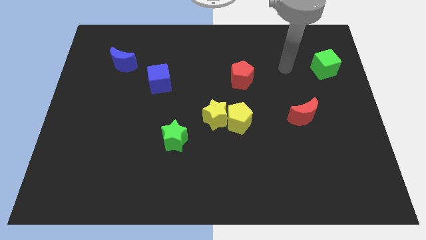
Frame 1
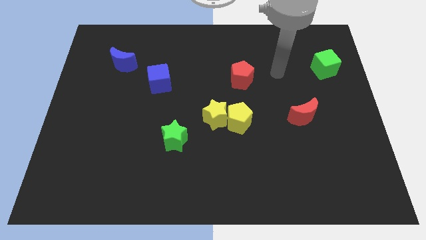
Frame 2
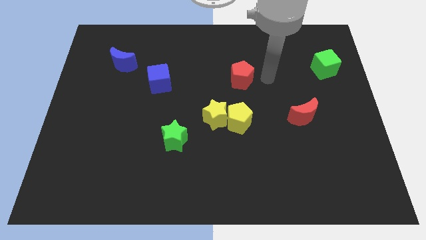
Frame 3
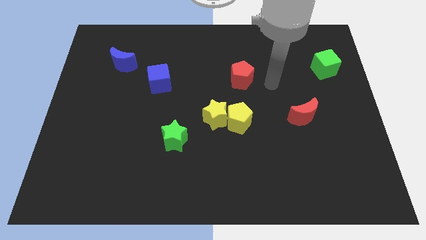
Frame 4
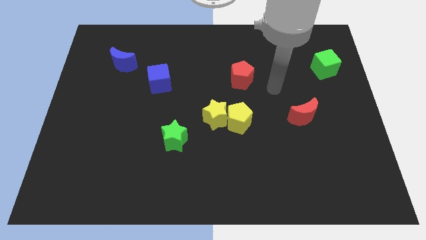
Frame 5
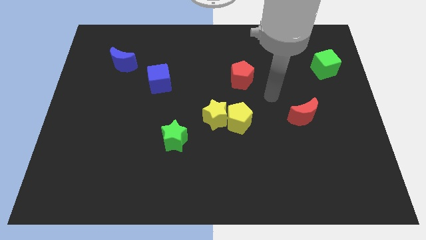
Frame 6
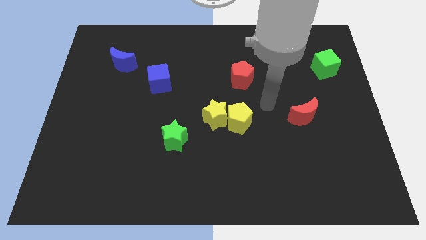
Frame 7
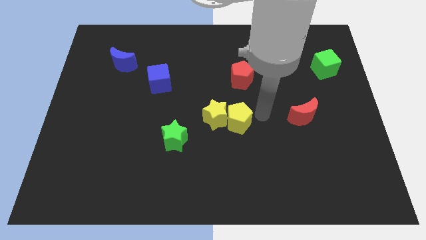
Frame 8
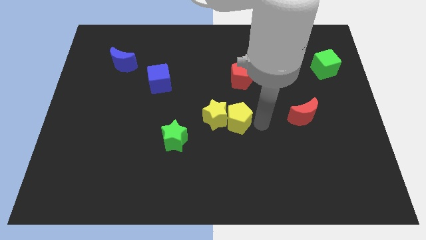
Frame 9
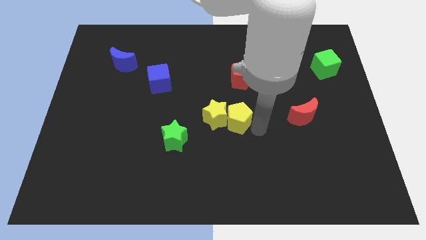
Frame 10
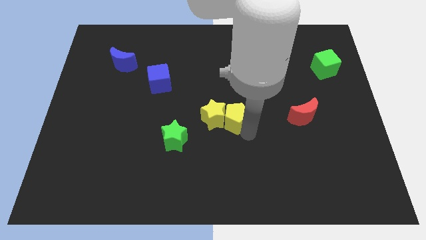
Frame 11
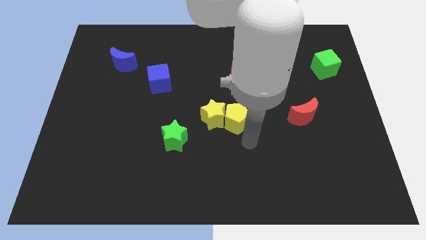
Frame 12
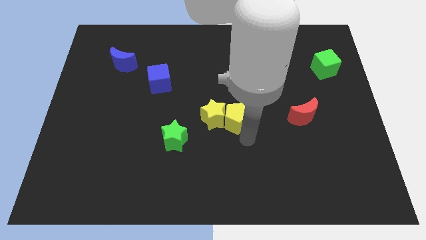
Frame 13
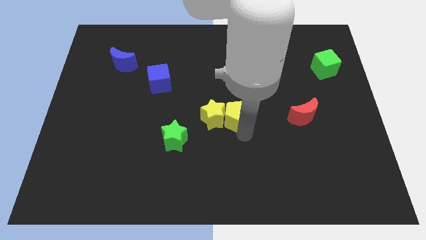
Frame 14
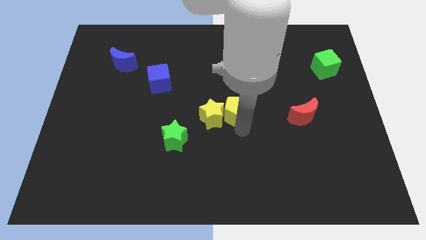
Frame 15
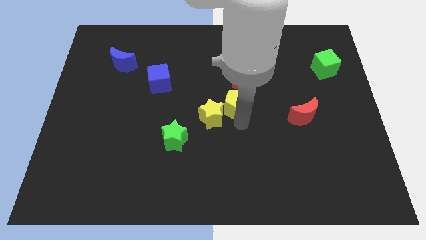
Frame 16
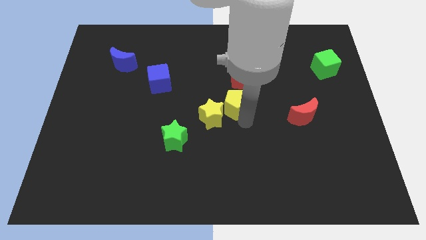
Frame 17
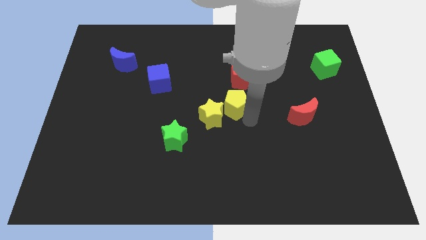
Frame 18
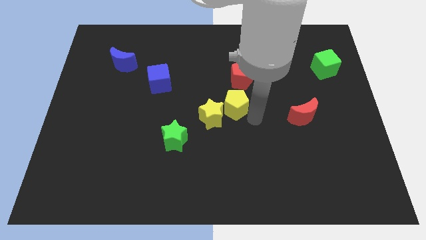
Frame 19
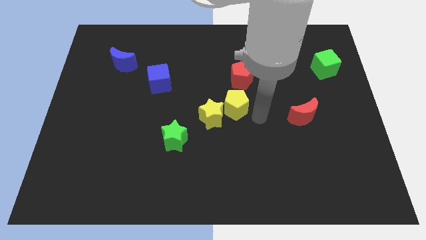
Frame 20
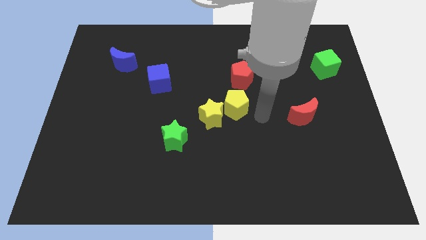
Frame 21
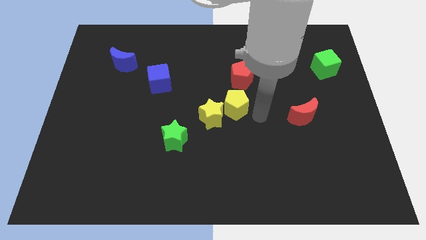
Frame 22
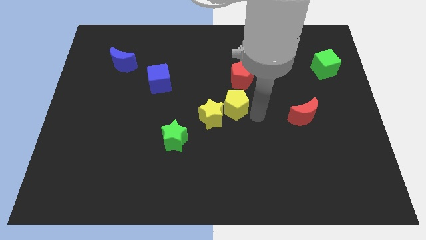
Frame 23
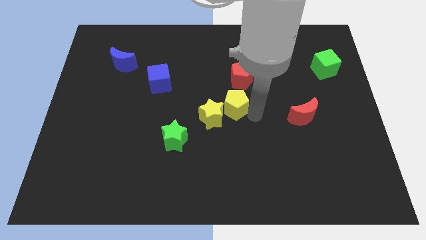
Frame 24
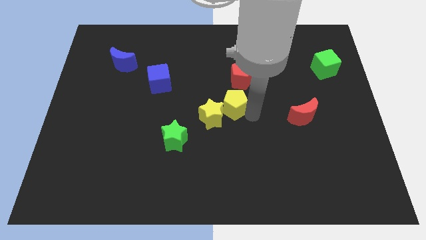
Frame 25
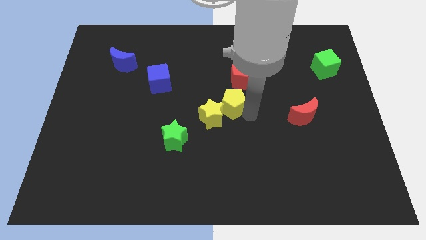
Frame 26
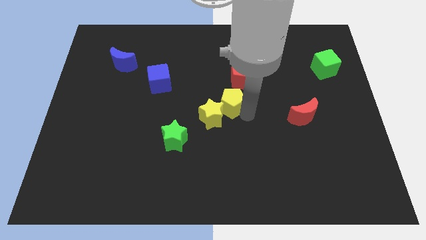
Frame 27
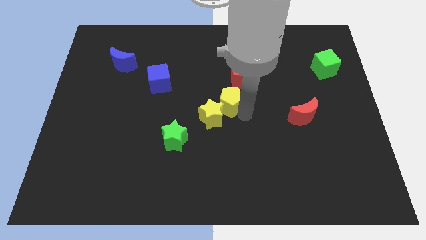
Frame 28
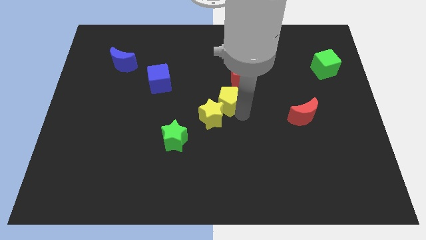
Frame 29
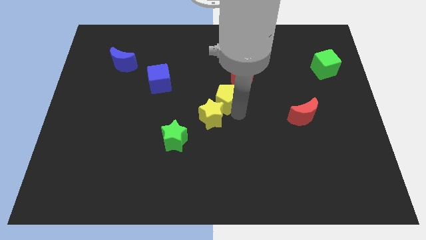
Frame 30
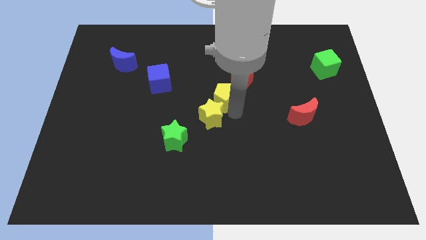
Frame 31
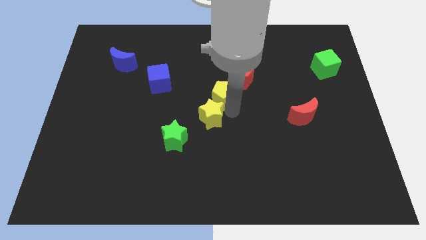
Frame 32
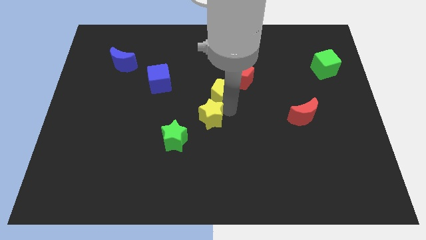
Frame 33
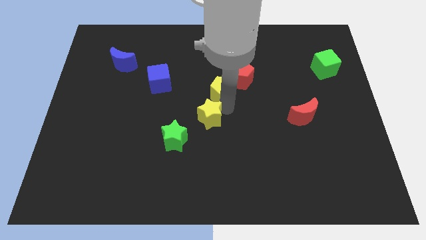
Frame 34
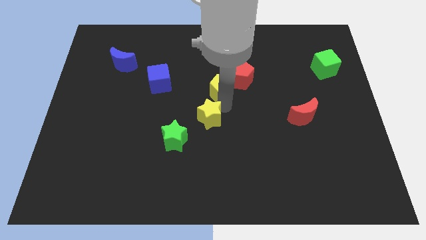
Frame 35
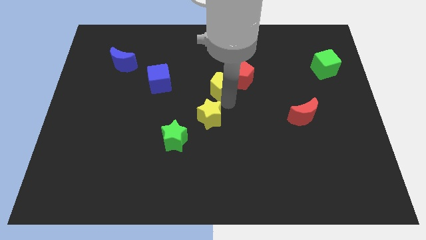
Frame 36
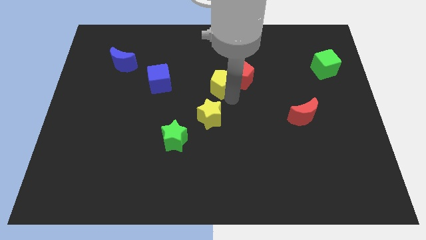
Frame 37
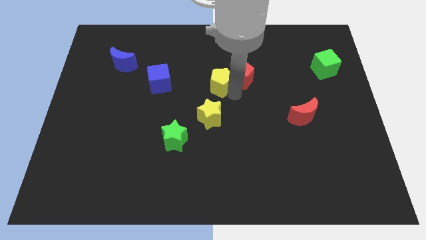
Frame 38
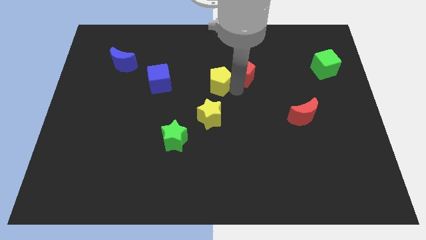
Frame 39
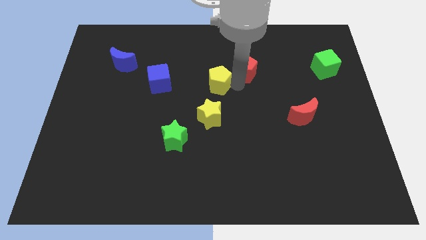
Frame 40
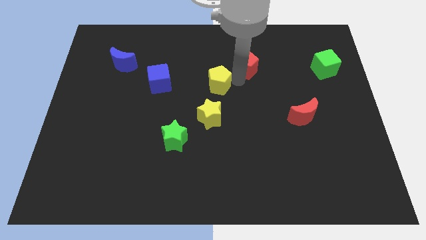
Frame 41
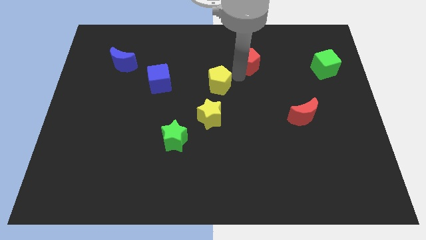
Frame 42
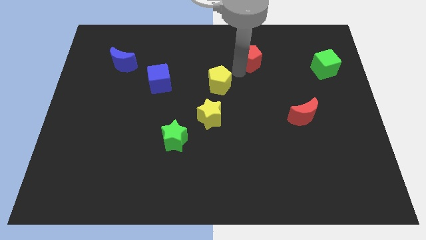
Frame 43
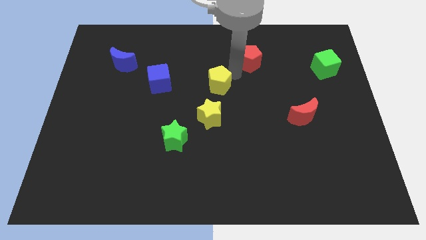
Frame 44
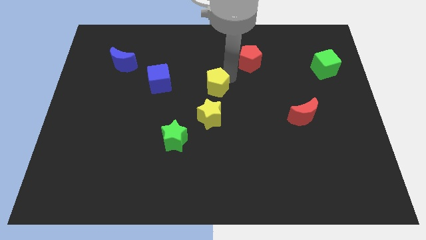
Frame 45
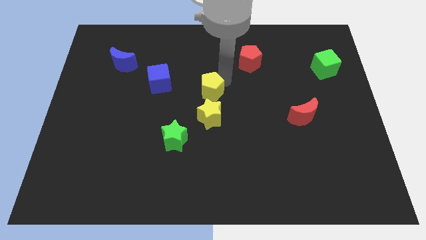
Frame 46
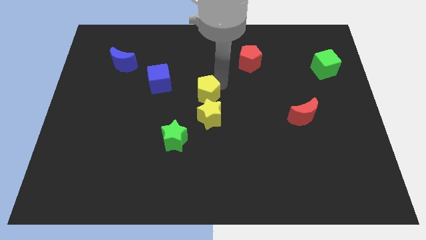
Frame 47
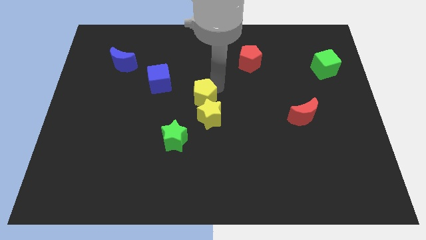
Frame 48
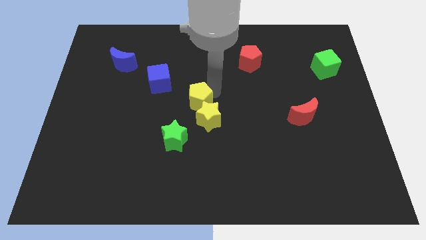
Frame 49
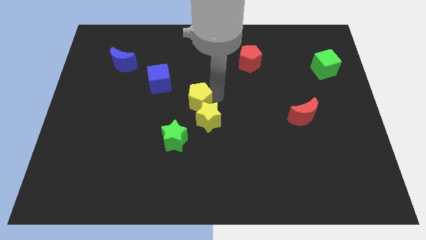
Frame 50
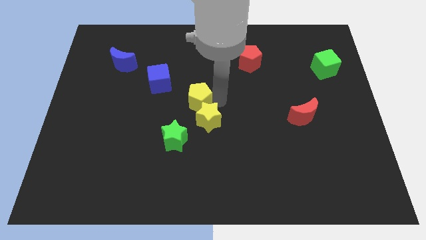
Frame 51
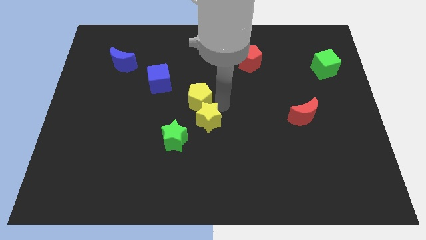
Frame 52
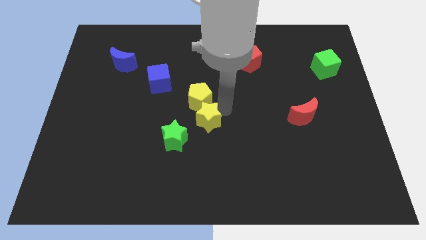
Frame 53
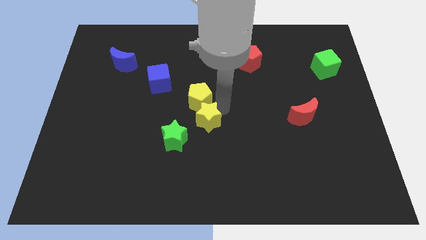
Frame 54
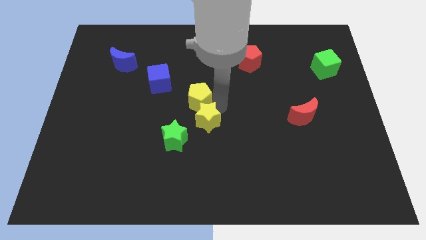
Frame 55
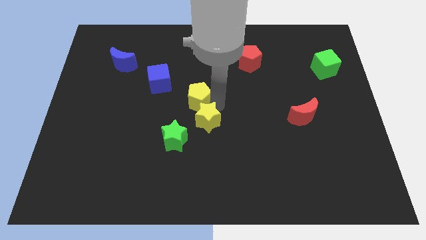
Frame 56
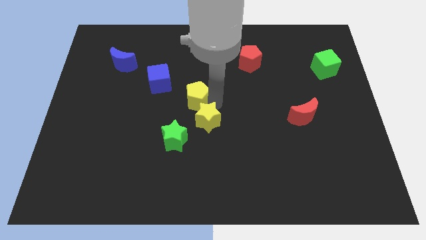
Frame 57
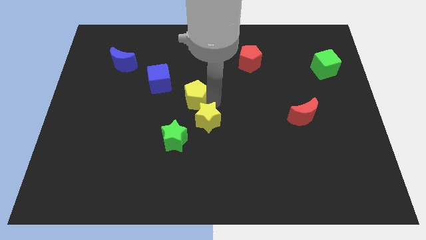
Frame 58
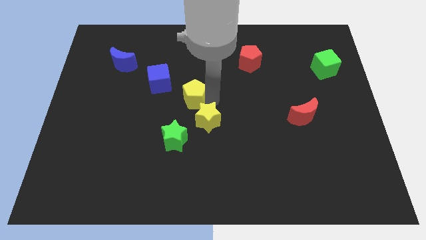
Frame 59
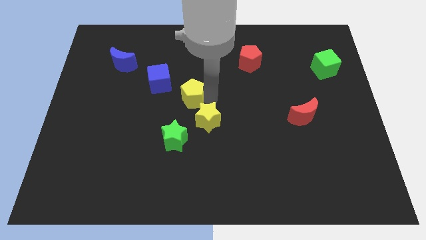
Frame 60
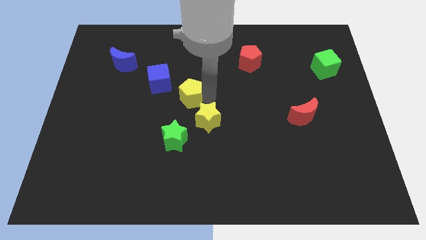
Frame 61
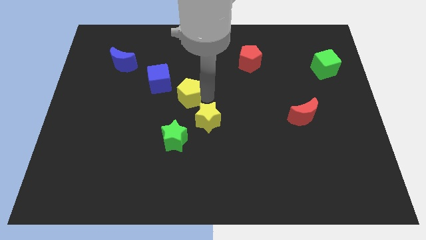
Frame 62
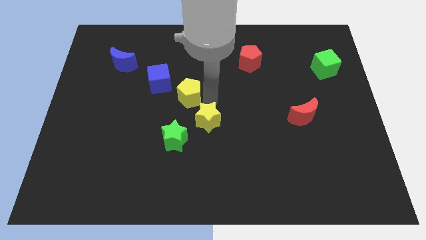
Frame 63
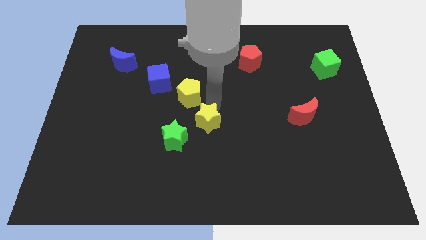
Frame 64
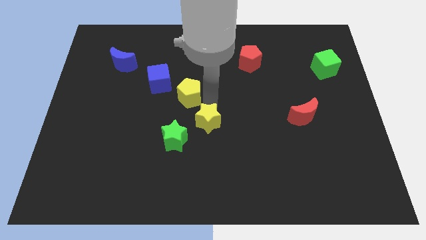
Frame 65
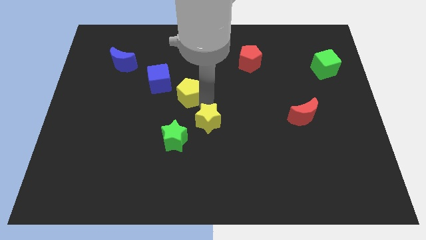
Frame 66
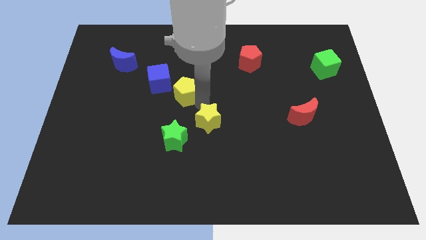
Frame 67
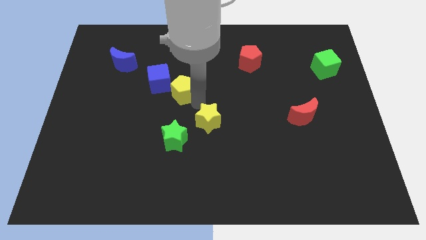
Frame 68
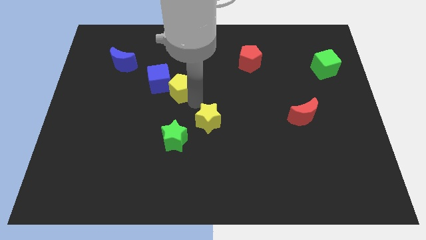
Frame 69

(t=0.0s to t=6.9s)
slide the yellow pentagon close to the blue cube
